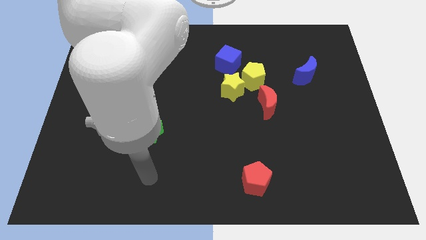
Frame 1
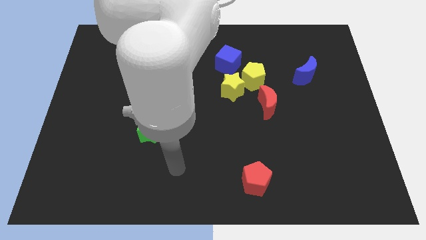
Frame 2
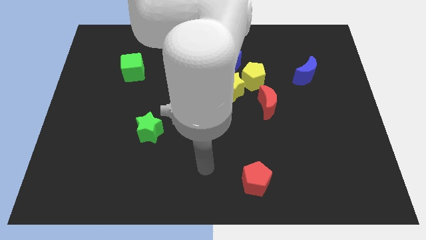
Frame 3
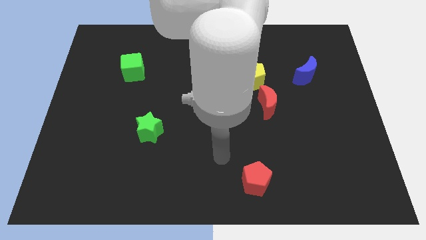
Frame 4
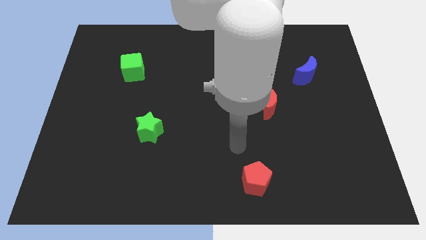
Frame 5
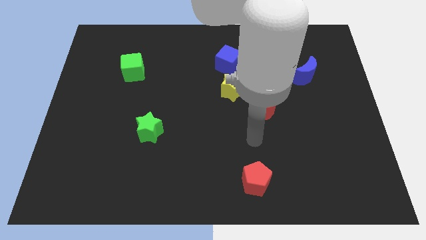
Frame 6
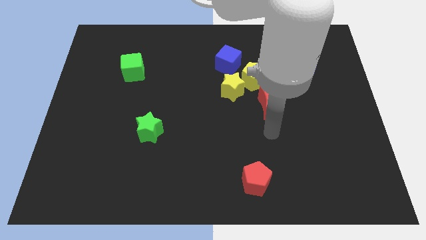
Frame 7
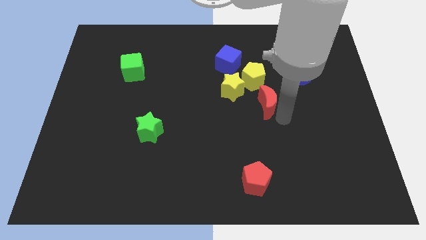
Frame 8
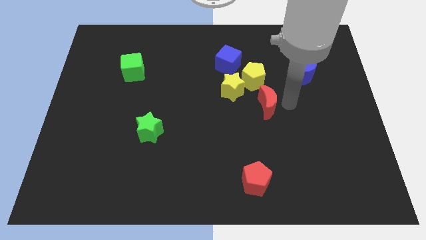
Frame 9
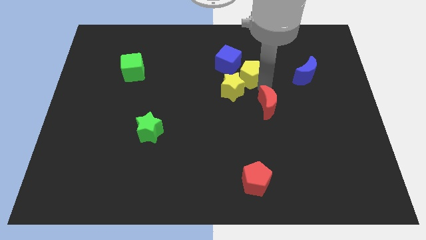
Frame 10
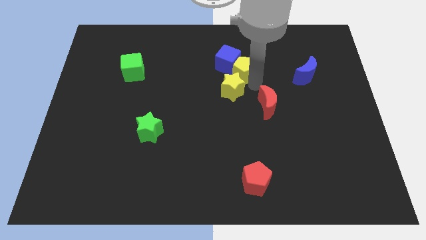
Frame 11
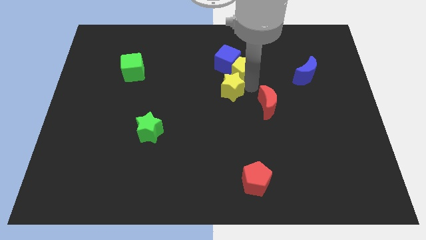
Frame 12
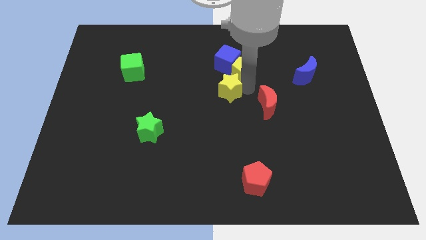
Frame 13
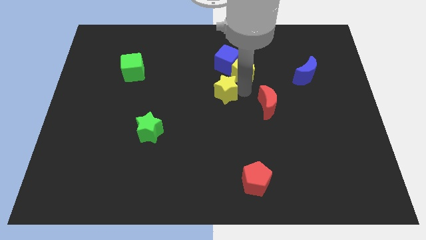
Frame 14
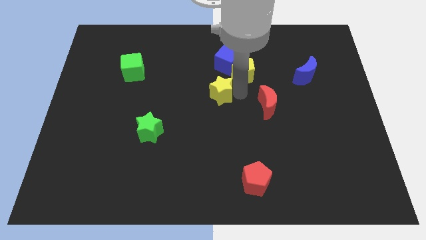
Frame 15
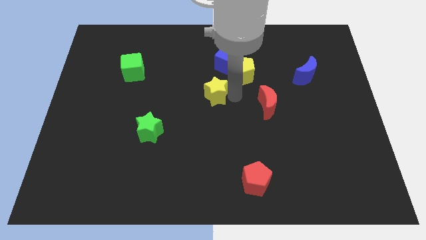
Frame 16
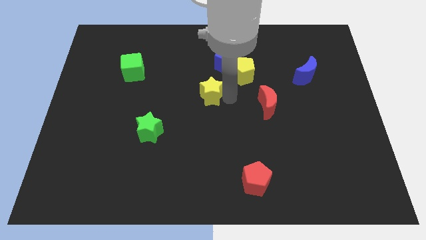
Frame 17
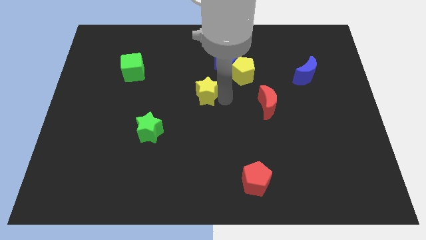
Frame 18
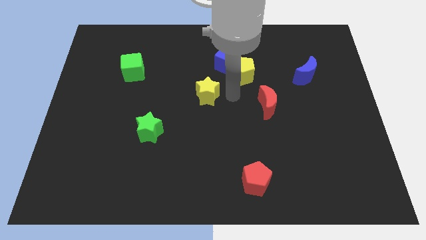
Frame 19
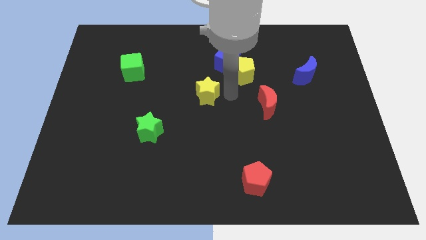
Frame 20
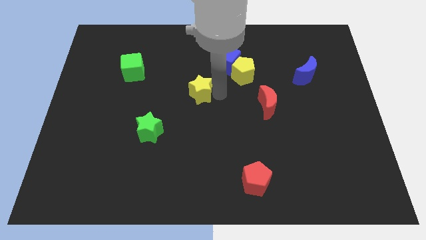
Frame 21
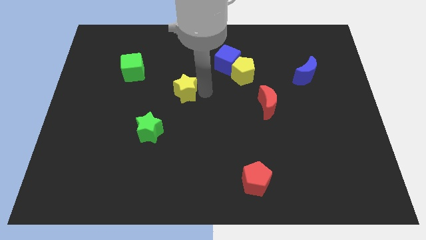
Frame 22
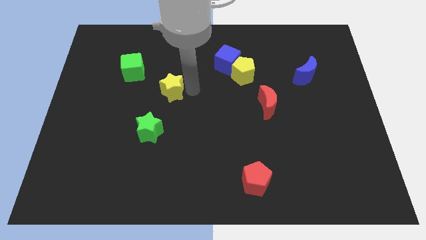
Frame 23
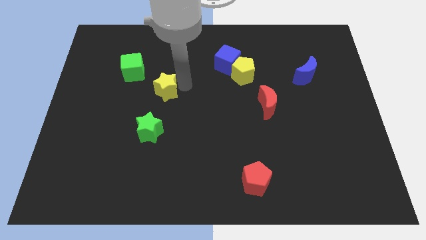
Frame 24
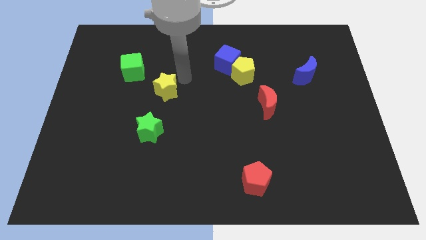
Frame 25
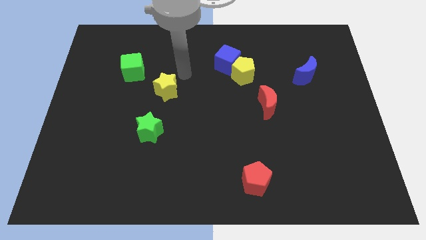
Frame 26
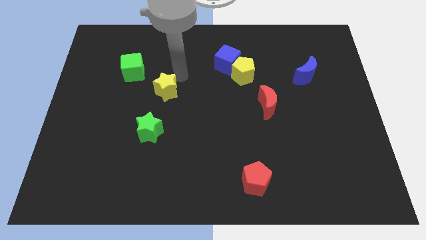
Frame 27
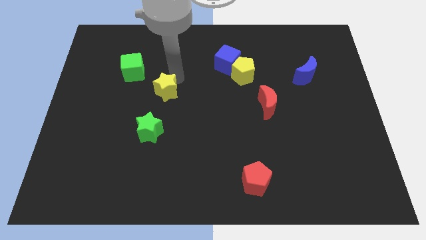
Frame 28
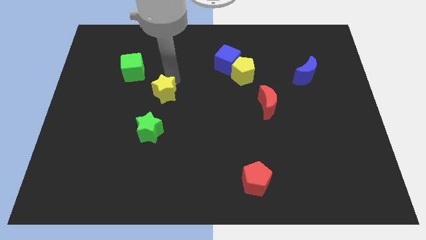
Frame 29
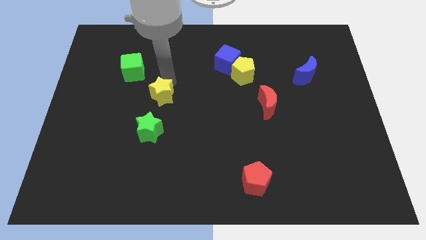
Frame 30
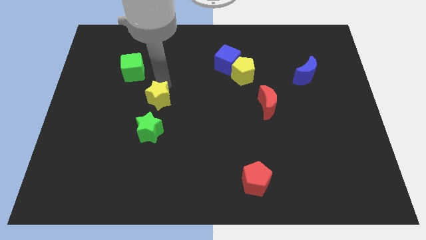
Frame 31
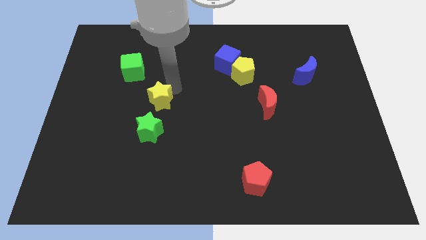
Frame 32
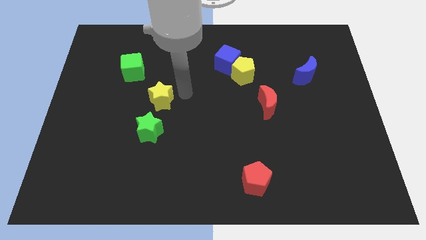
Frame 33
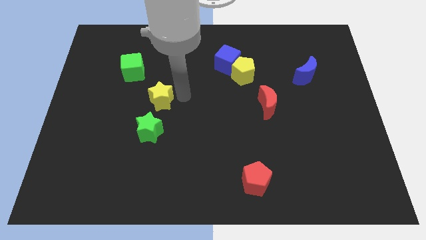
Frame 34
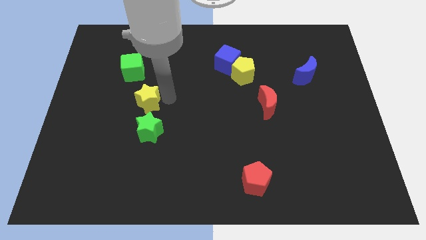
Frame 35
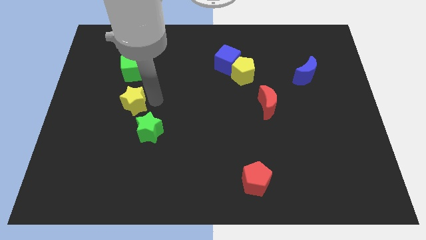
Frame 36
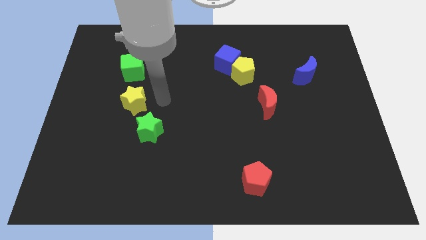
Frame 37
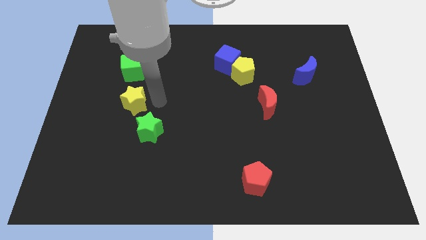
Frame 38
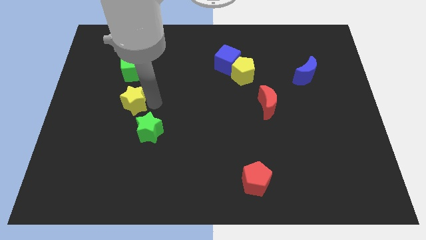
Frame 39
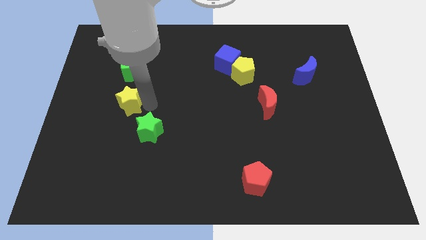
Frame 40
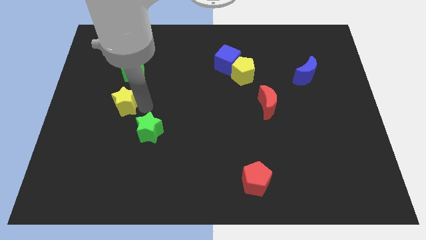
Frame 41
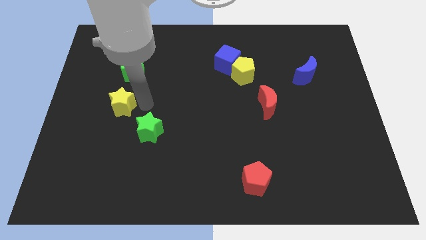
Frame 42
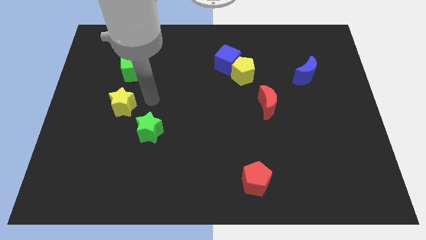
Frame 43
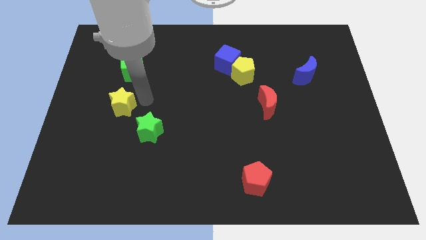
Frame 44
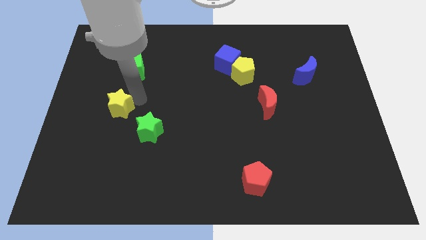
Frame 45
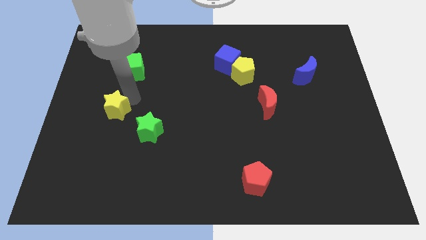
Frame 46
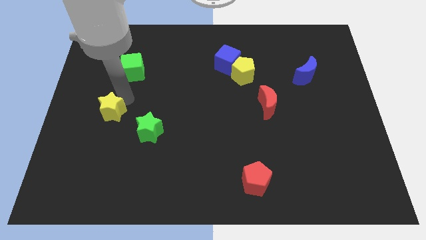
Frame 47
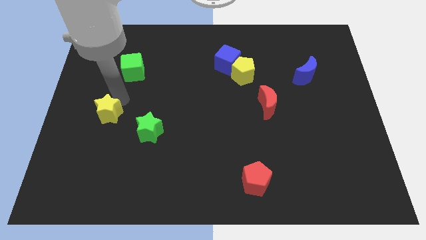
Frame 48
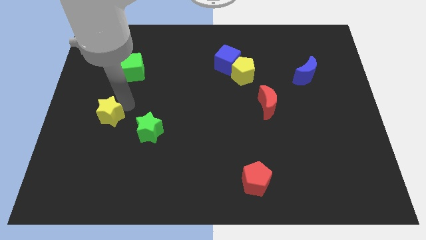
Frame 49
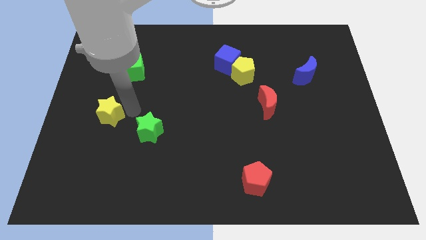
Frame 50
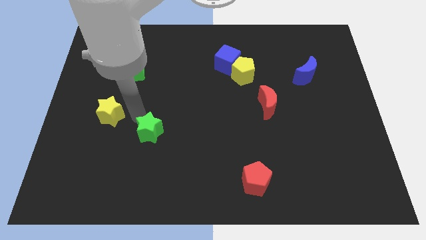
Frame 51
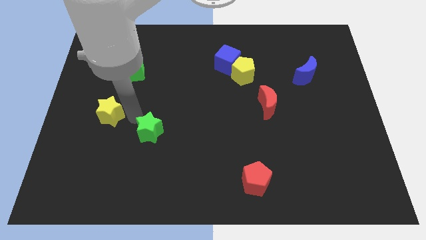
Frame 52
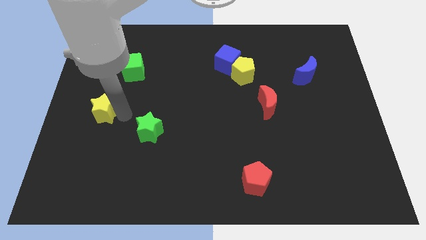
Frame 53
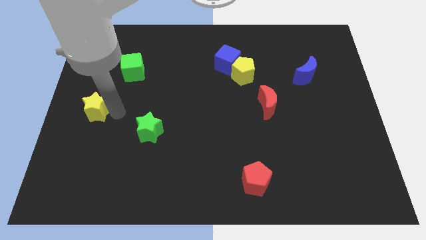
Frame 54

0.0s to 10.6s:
move the yellow star to the center left
